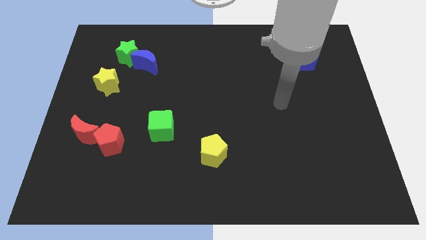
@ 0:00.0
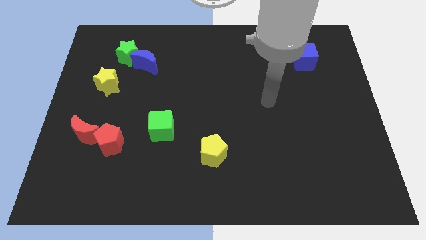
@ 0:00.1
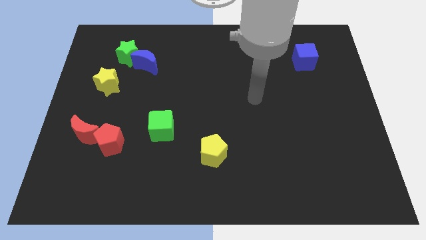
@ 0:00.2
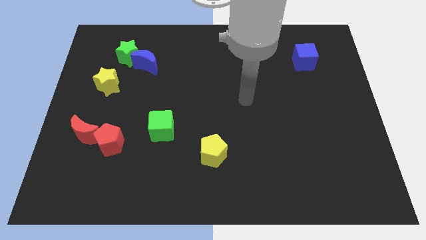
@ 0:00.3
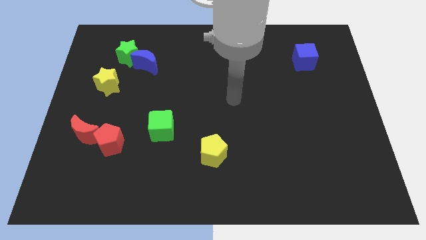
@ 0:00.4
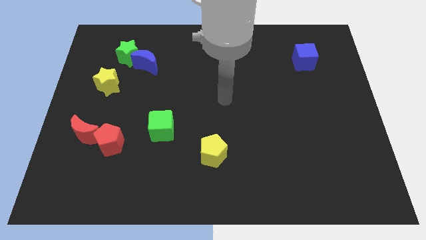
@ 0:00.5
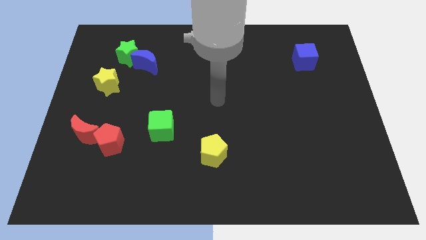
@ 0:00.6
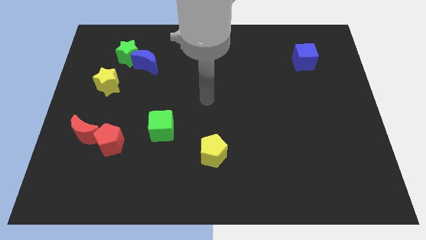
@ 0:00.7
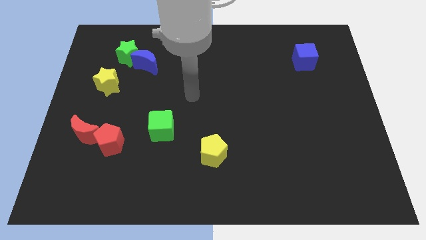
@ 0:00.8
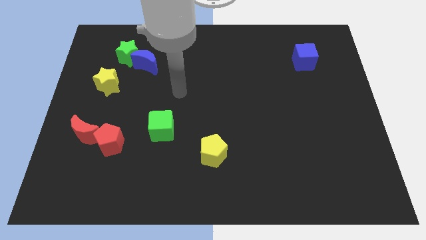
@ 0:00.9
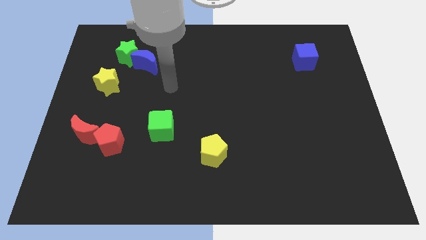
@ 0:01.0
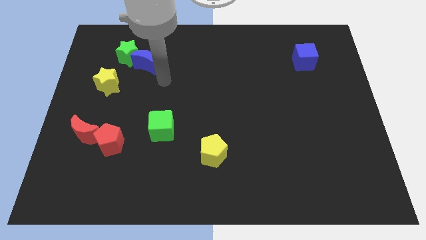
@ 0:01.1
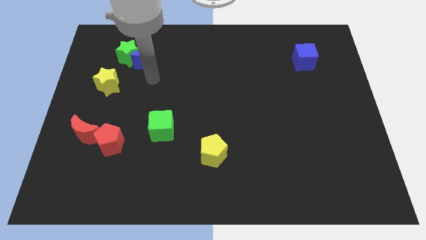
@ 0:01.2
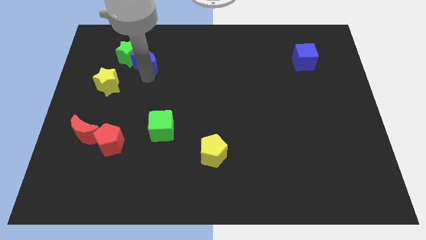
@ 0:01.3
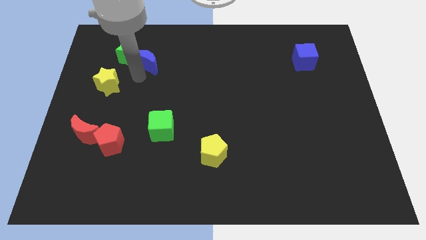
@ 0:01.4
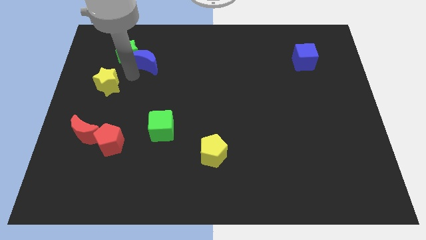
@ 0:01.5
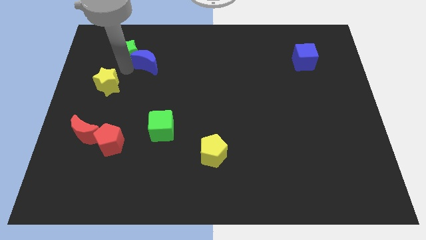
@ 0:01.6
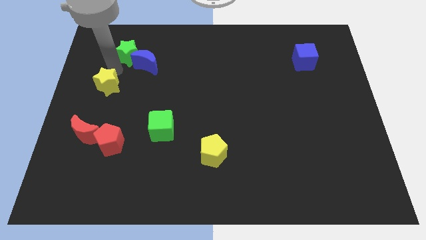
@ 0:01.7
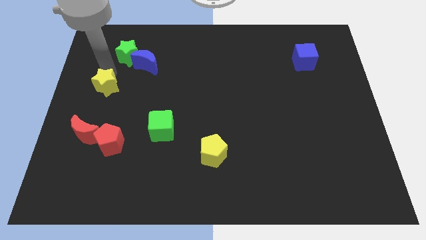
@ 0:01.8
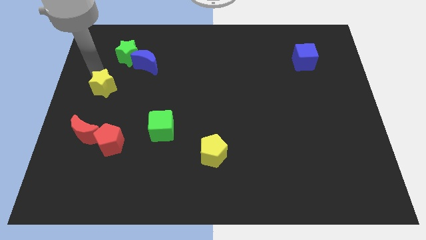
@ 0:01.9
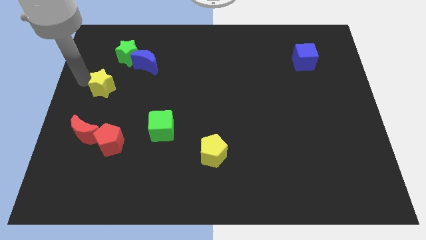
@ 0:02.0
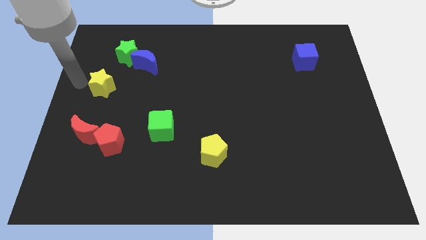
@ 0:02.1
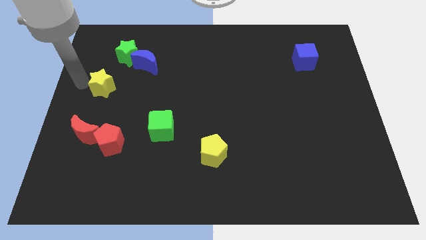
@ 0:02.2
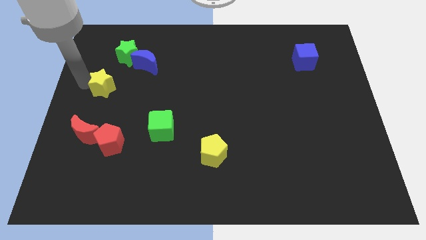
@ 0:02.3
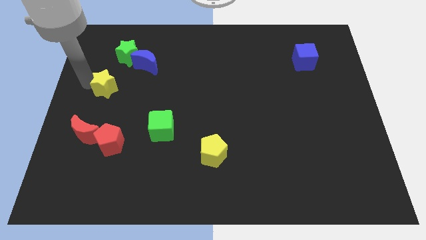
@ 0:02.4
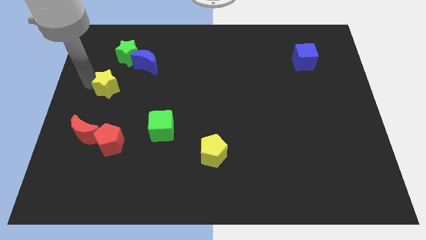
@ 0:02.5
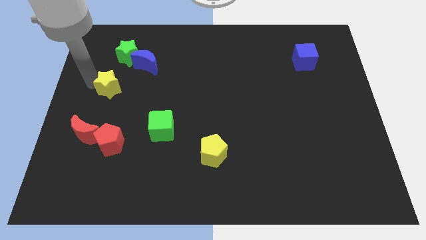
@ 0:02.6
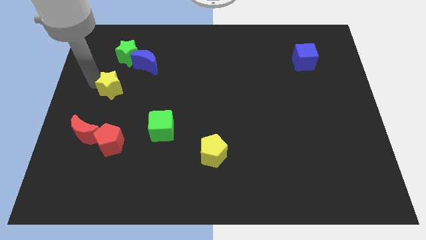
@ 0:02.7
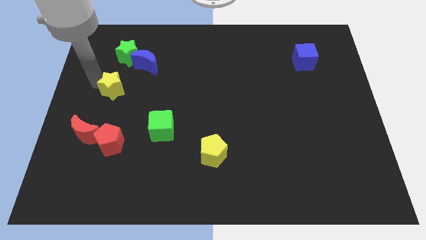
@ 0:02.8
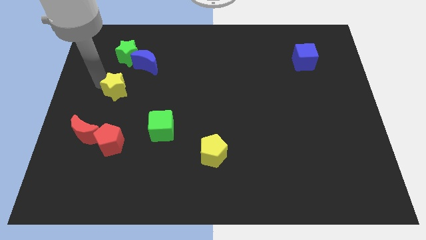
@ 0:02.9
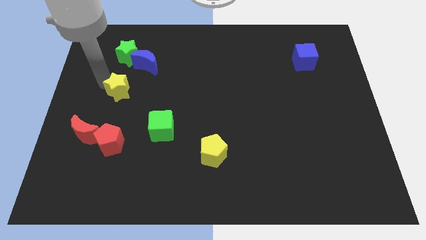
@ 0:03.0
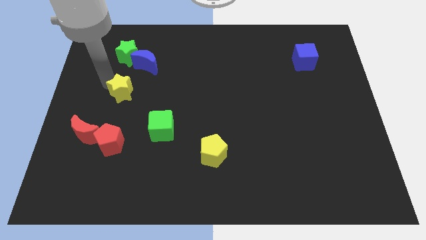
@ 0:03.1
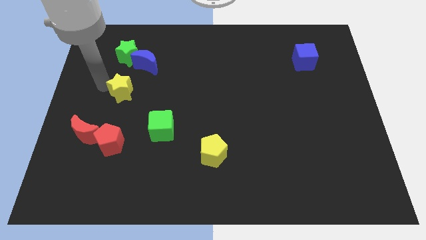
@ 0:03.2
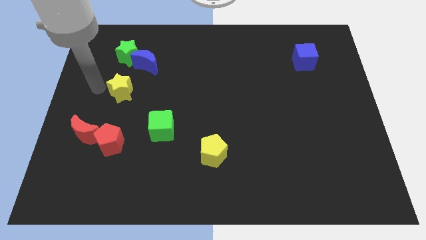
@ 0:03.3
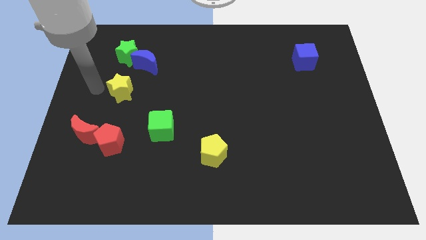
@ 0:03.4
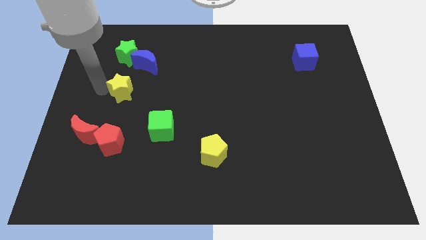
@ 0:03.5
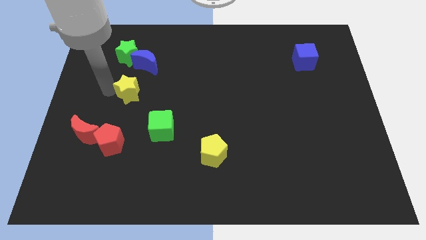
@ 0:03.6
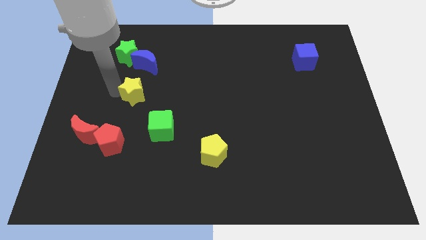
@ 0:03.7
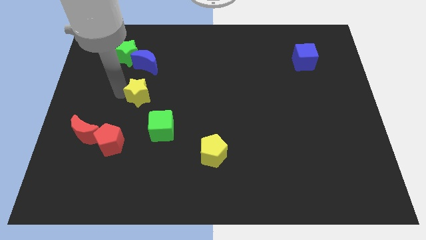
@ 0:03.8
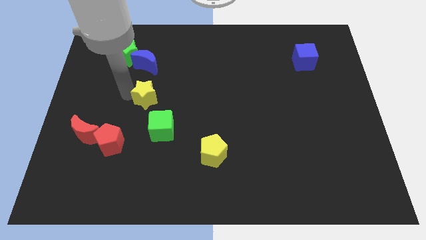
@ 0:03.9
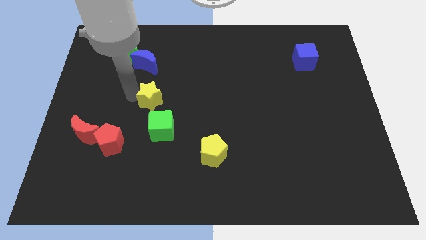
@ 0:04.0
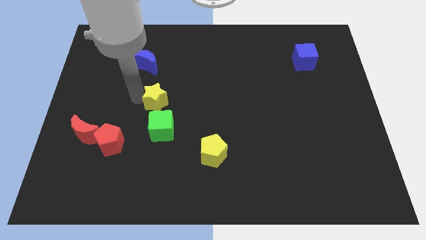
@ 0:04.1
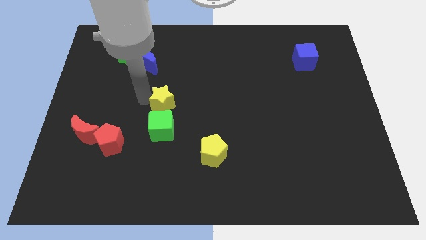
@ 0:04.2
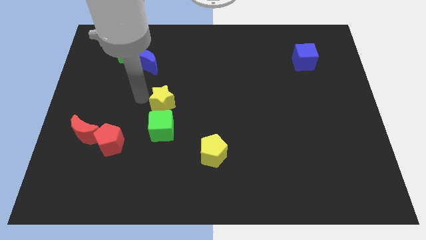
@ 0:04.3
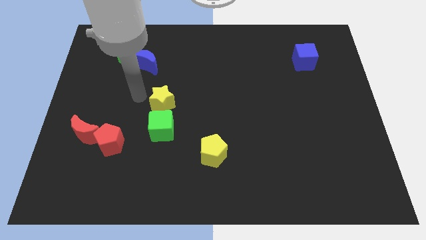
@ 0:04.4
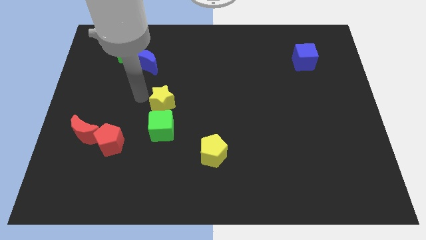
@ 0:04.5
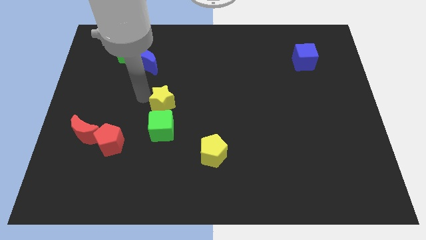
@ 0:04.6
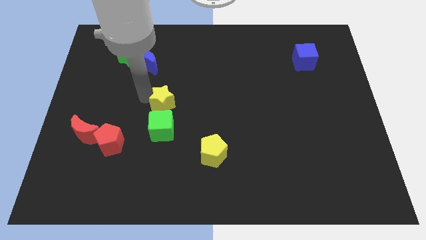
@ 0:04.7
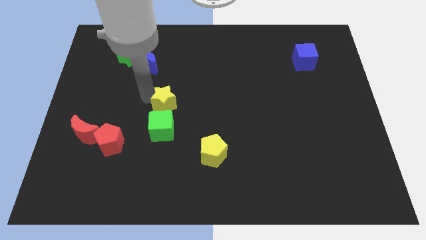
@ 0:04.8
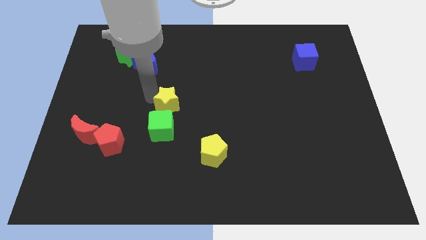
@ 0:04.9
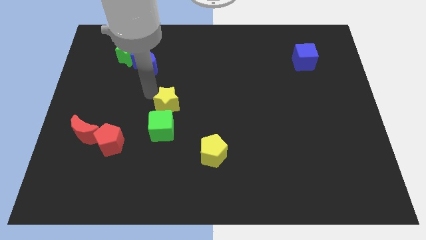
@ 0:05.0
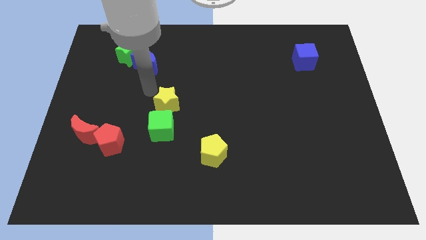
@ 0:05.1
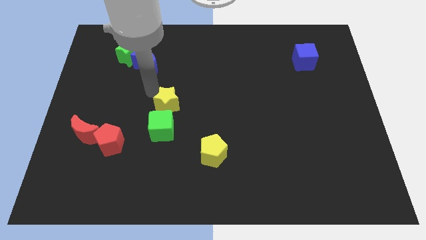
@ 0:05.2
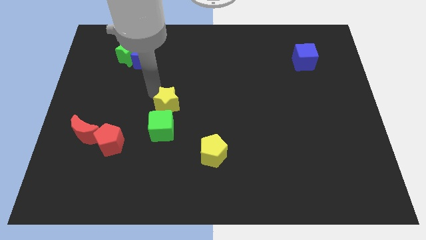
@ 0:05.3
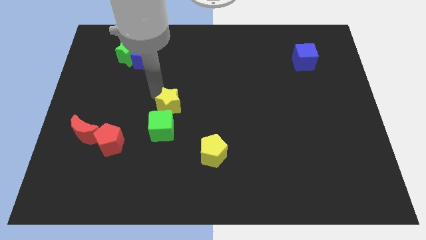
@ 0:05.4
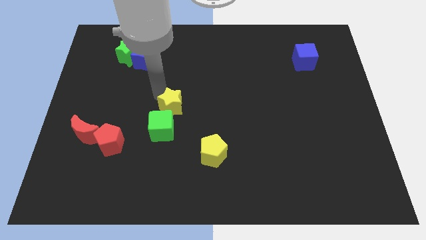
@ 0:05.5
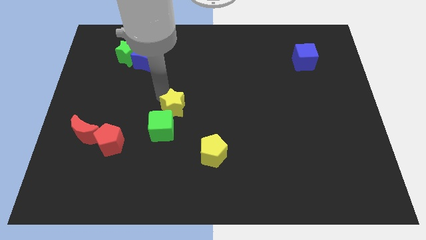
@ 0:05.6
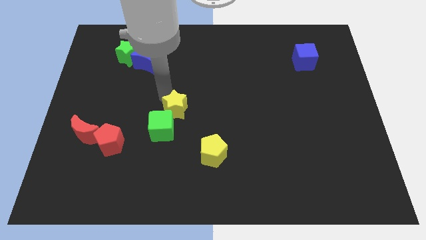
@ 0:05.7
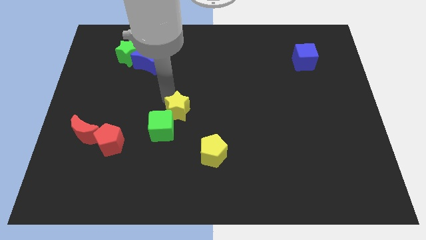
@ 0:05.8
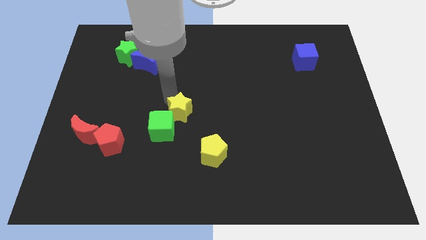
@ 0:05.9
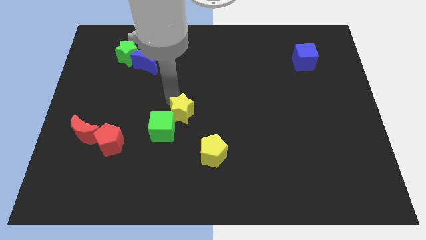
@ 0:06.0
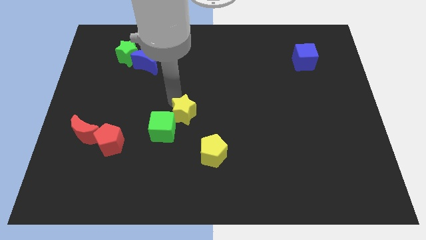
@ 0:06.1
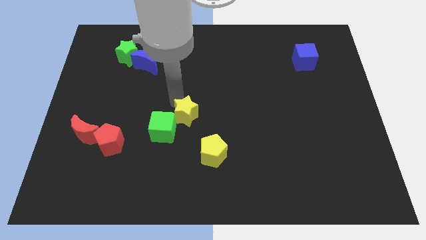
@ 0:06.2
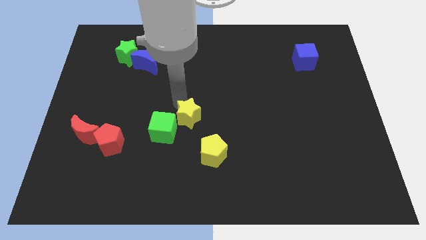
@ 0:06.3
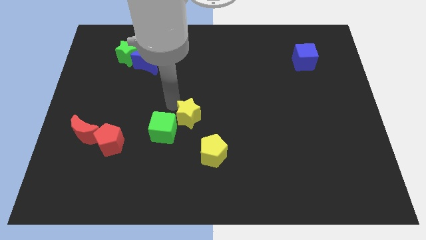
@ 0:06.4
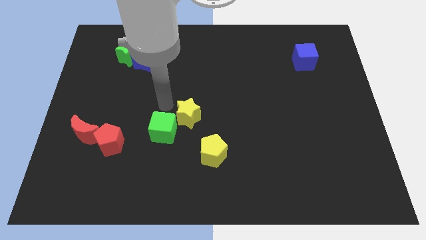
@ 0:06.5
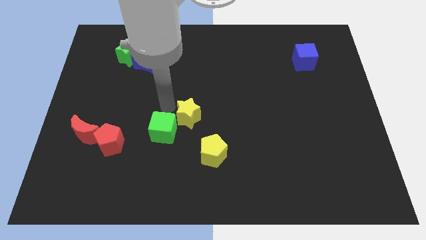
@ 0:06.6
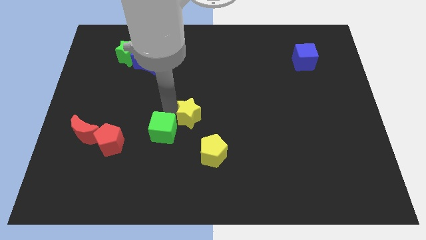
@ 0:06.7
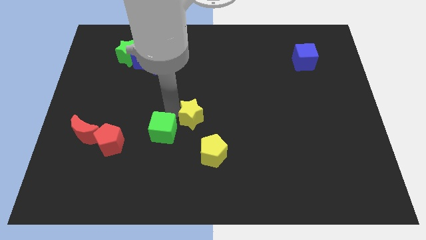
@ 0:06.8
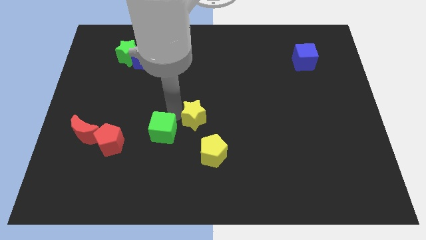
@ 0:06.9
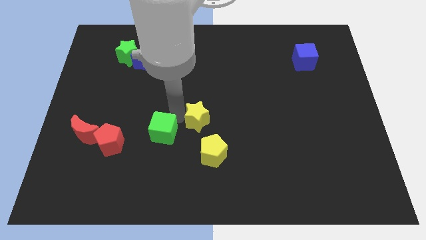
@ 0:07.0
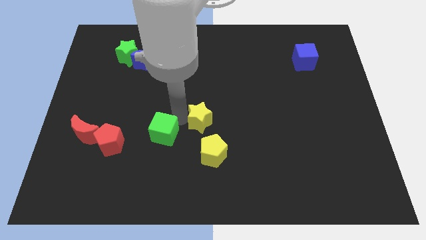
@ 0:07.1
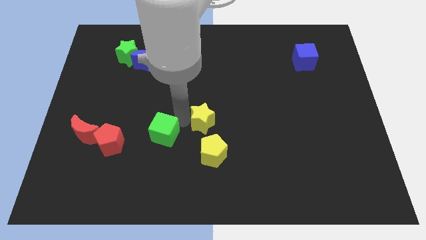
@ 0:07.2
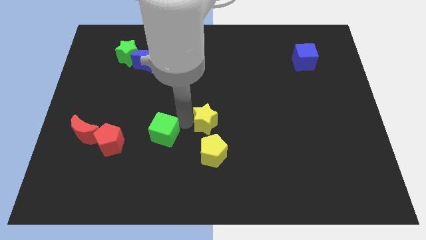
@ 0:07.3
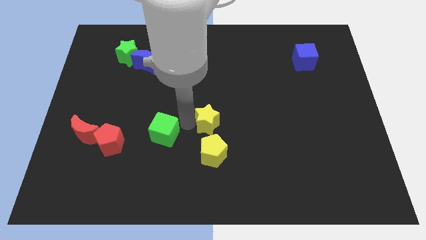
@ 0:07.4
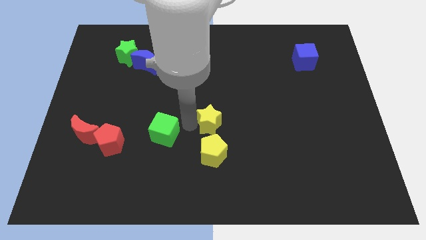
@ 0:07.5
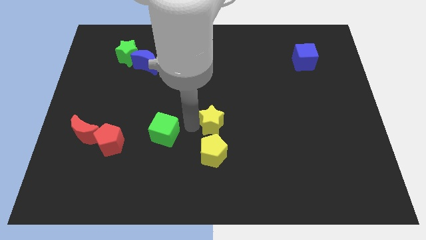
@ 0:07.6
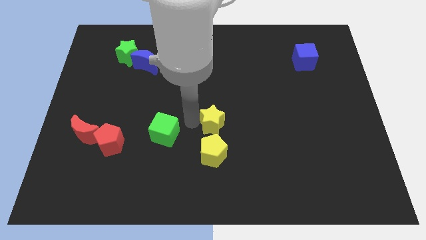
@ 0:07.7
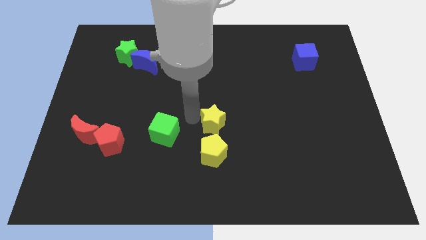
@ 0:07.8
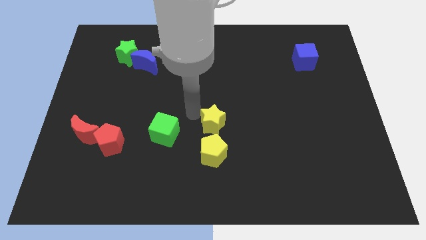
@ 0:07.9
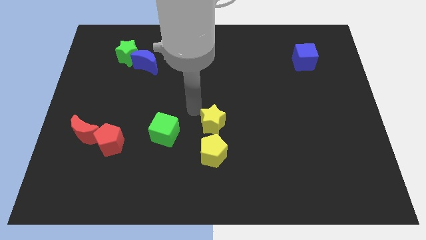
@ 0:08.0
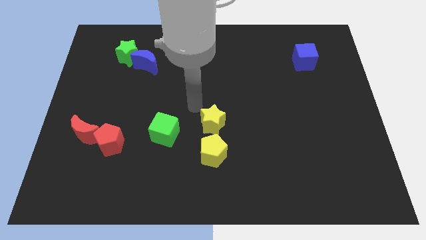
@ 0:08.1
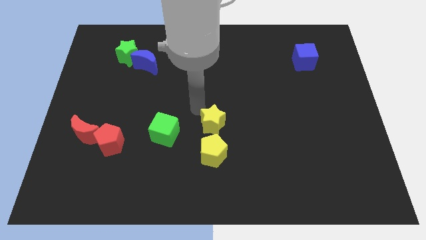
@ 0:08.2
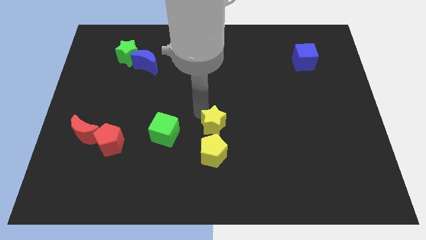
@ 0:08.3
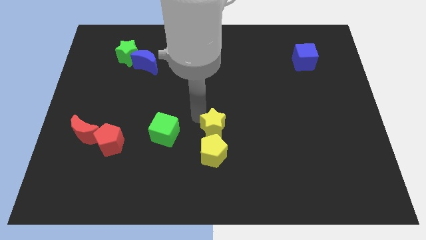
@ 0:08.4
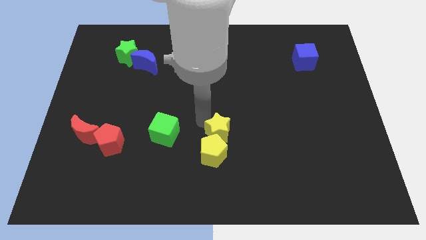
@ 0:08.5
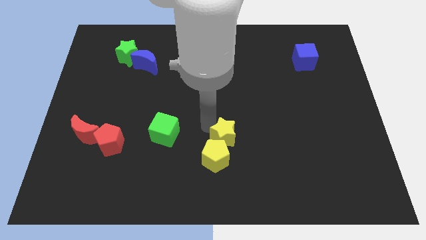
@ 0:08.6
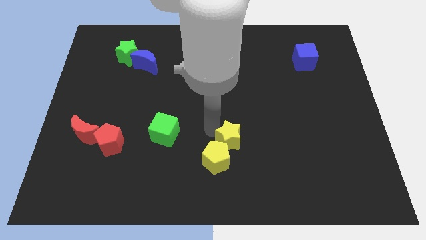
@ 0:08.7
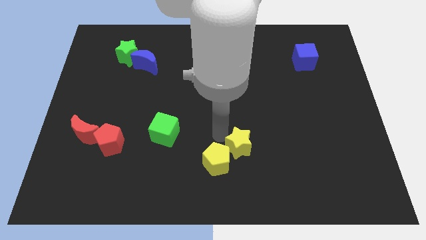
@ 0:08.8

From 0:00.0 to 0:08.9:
push the yellow star to the right of the yellow pentagon
